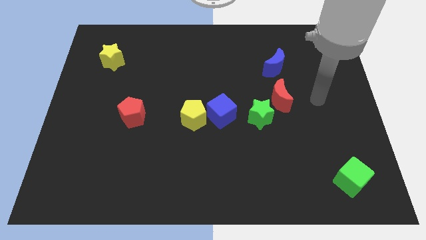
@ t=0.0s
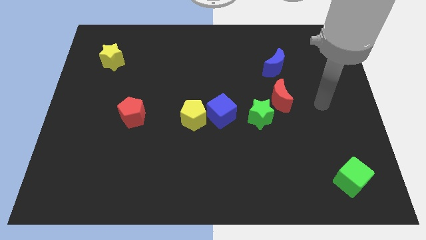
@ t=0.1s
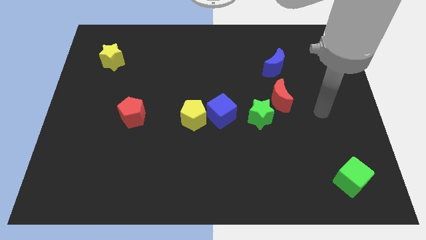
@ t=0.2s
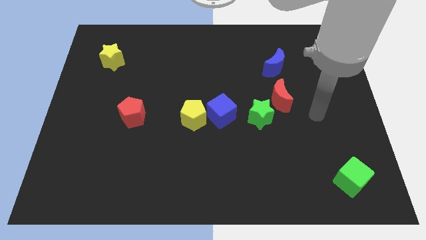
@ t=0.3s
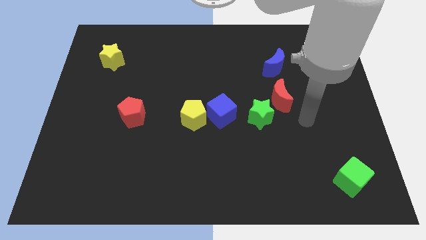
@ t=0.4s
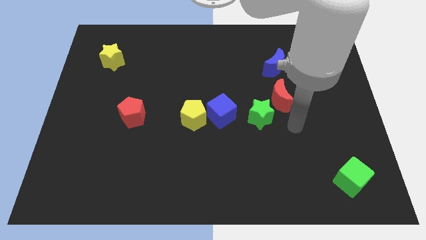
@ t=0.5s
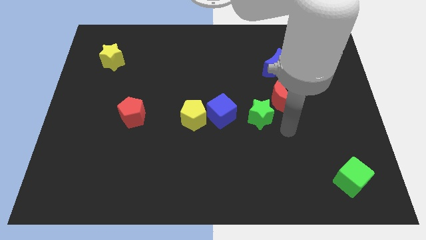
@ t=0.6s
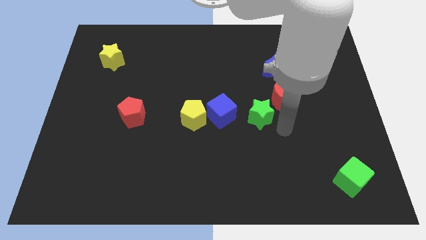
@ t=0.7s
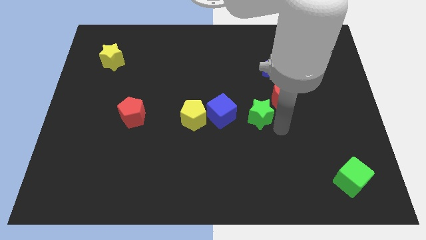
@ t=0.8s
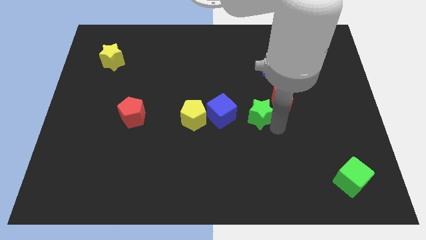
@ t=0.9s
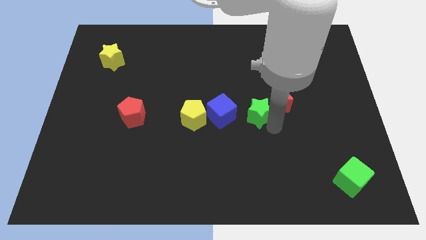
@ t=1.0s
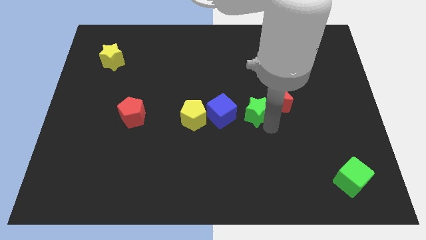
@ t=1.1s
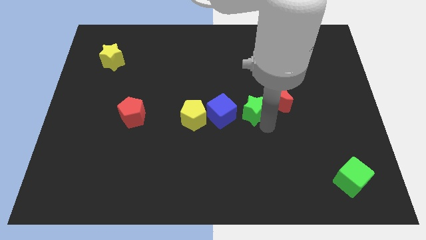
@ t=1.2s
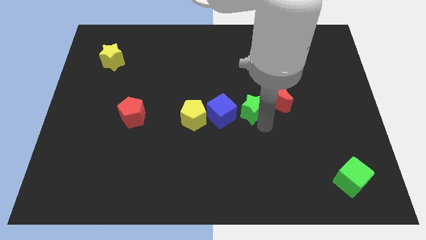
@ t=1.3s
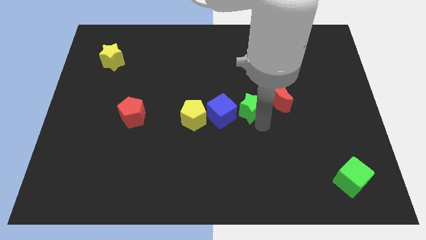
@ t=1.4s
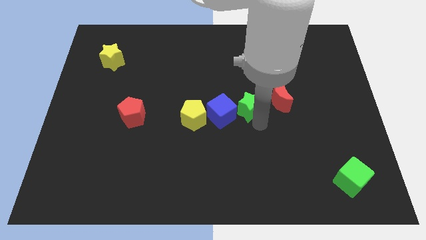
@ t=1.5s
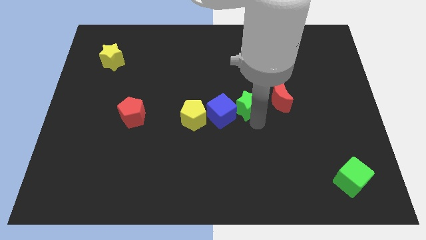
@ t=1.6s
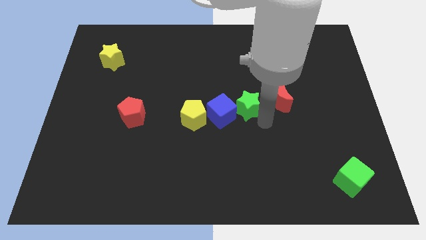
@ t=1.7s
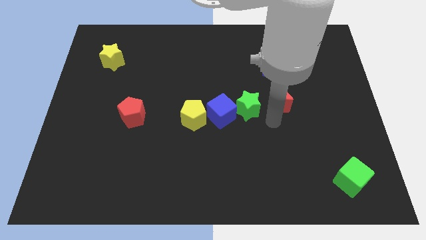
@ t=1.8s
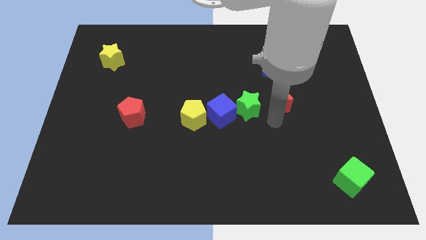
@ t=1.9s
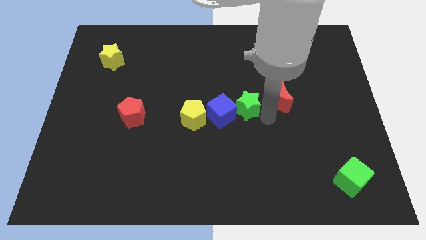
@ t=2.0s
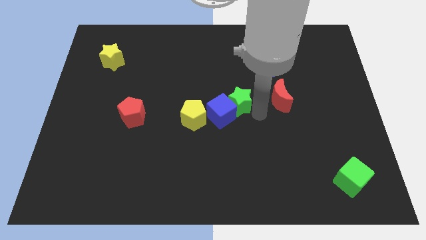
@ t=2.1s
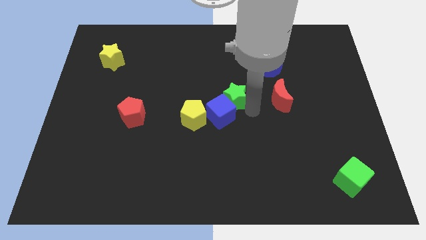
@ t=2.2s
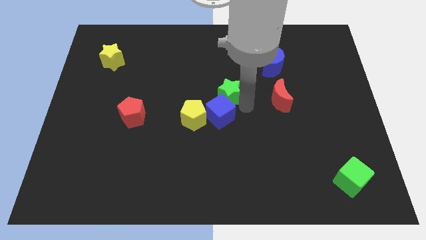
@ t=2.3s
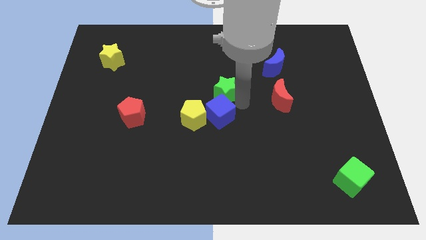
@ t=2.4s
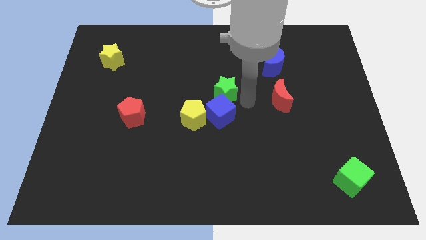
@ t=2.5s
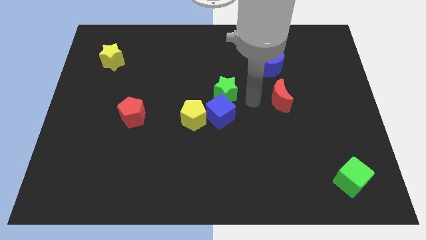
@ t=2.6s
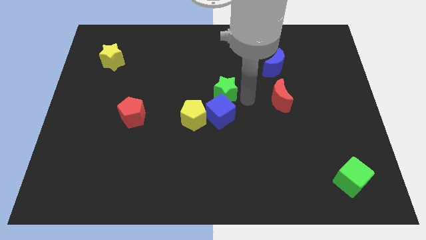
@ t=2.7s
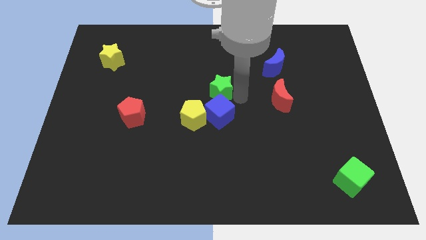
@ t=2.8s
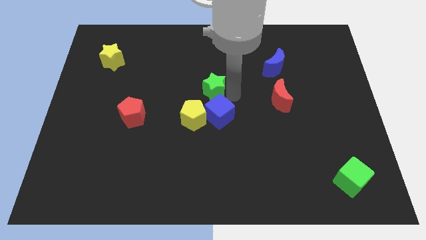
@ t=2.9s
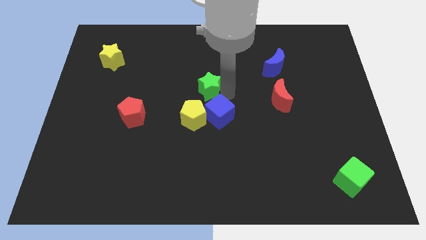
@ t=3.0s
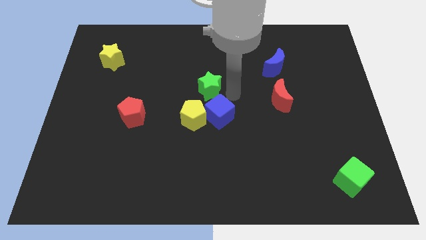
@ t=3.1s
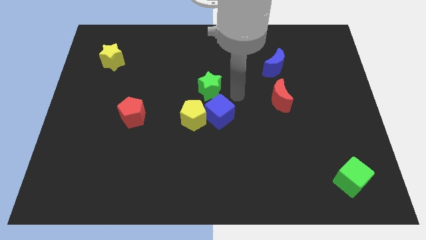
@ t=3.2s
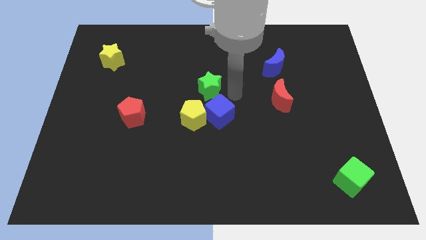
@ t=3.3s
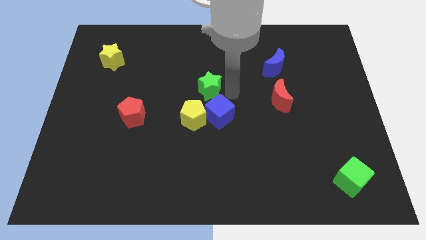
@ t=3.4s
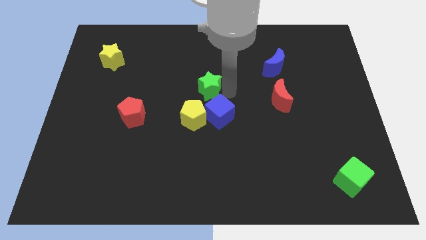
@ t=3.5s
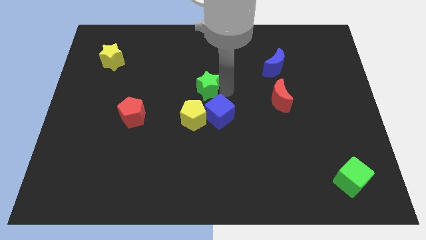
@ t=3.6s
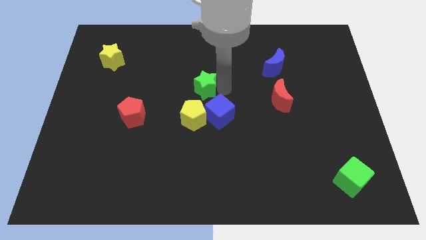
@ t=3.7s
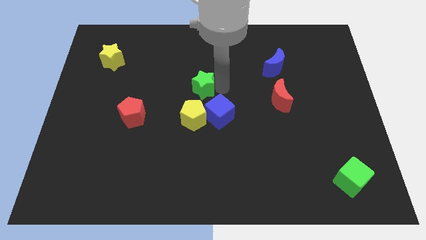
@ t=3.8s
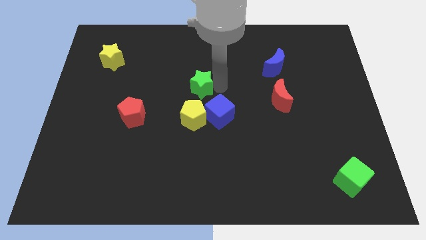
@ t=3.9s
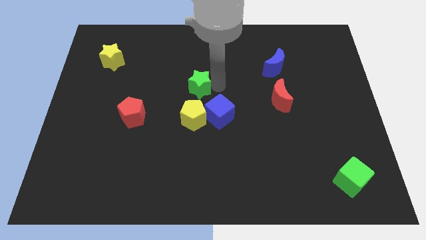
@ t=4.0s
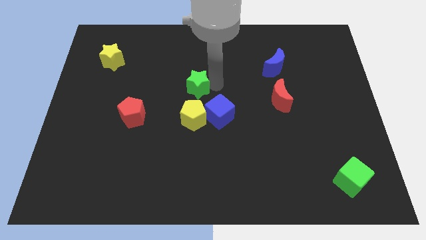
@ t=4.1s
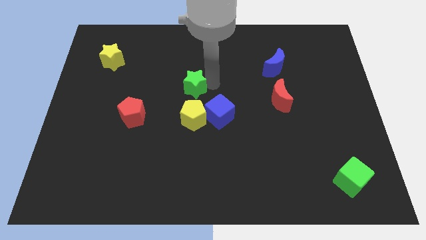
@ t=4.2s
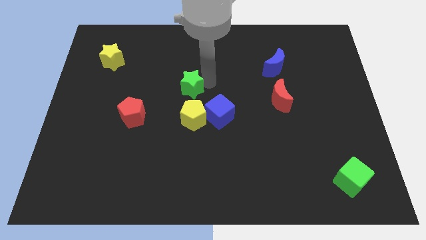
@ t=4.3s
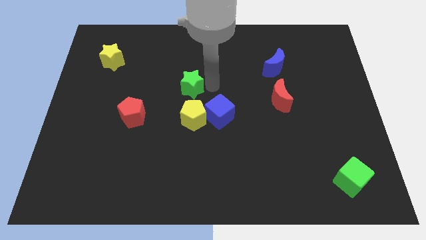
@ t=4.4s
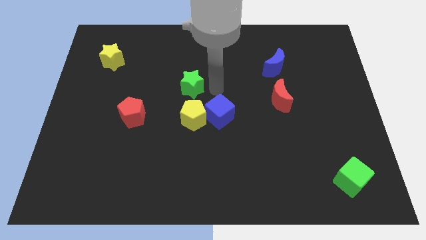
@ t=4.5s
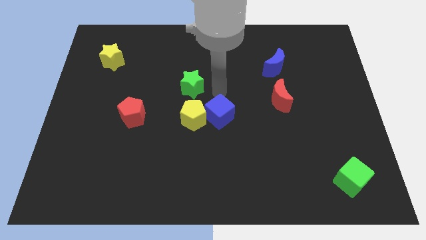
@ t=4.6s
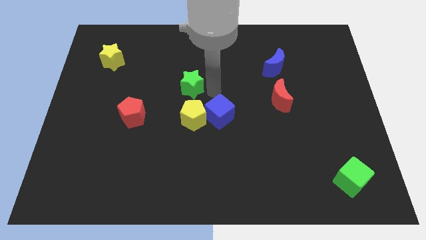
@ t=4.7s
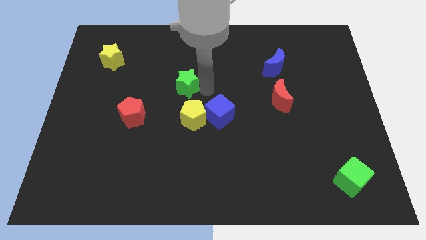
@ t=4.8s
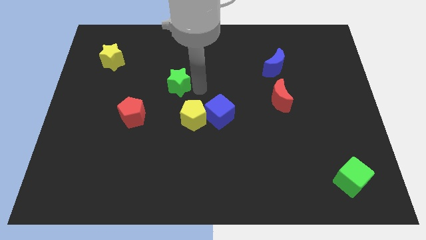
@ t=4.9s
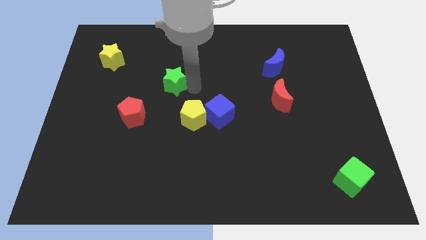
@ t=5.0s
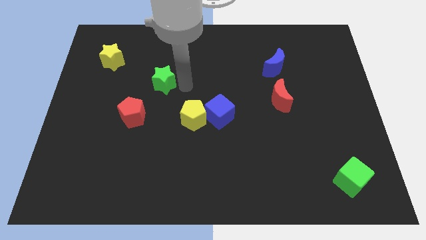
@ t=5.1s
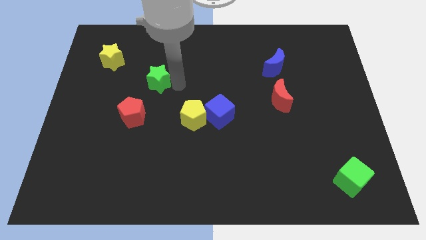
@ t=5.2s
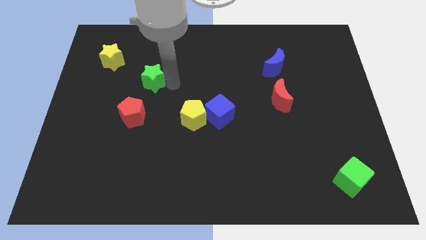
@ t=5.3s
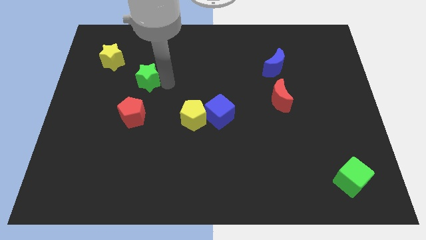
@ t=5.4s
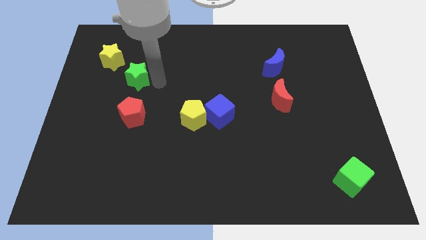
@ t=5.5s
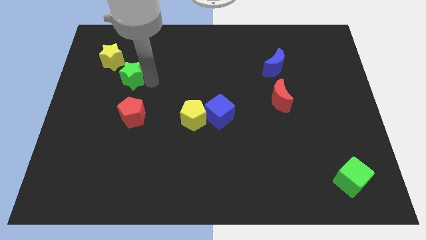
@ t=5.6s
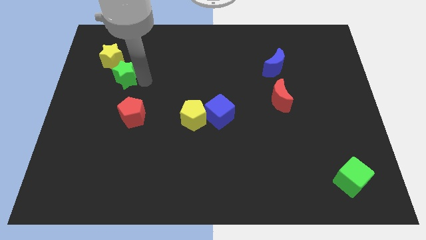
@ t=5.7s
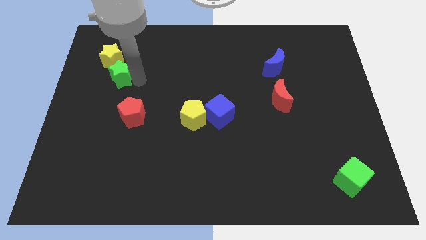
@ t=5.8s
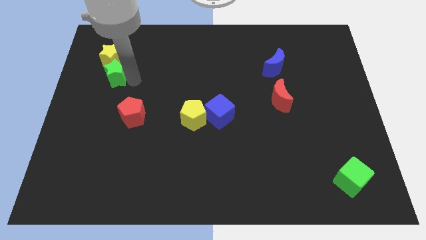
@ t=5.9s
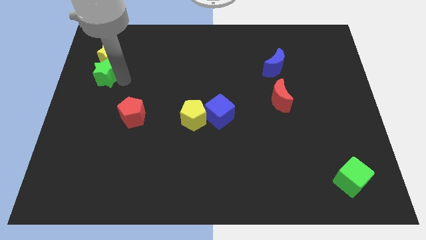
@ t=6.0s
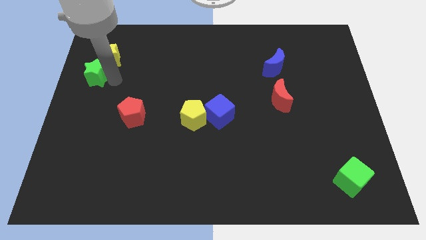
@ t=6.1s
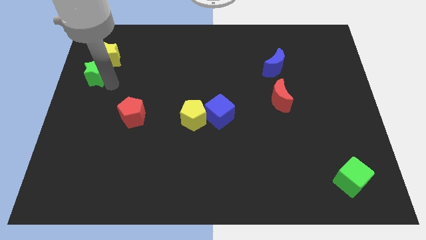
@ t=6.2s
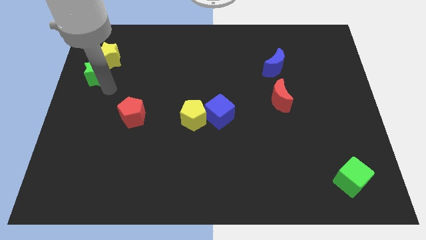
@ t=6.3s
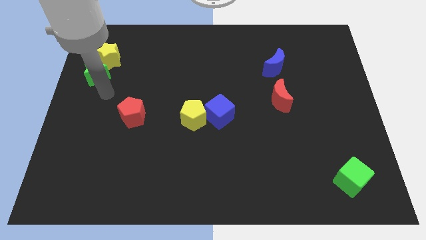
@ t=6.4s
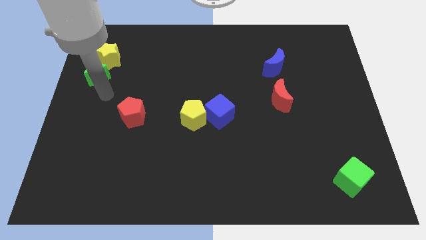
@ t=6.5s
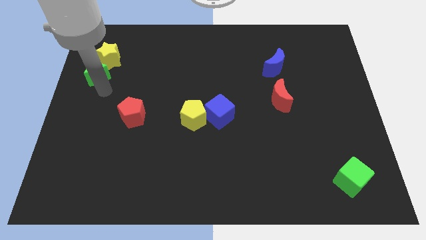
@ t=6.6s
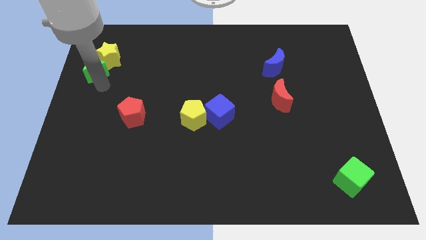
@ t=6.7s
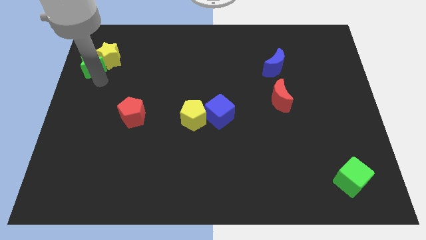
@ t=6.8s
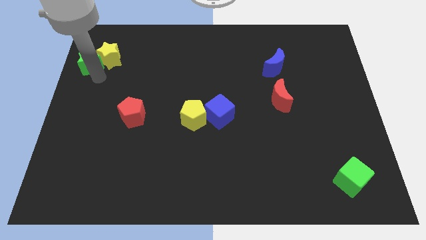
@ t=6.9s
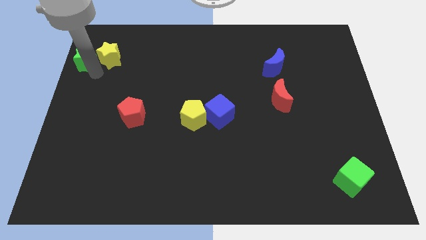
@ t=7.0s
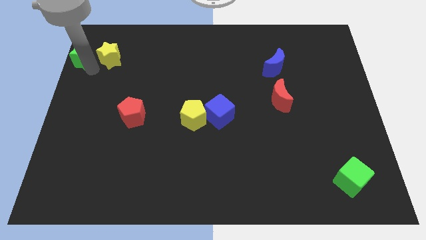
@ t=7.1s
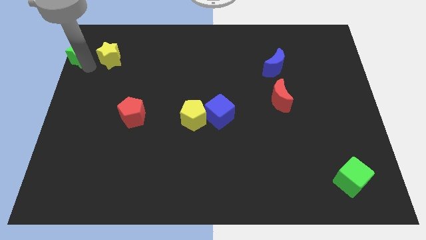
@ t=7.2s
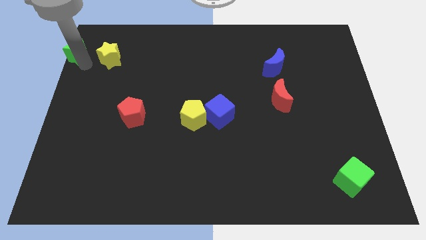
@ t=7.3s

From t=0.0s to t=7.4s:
move the green star to the top left corner
